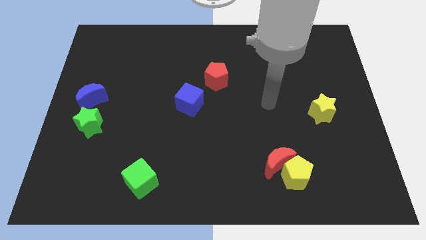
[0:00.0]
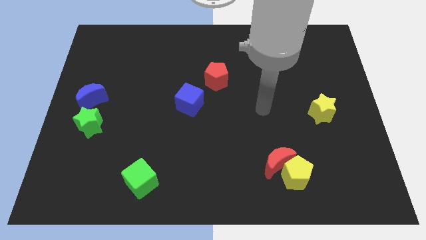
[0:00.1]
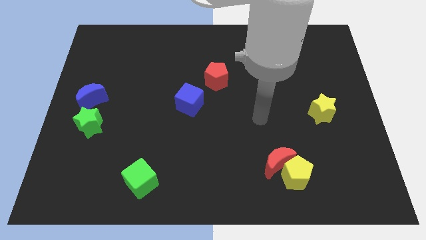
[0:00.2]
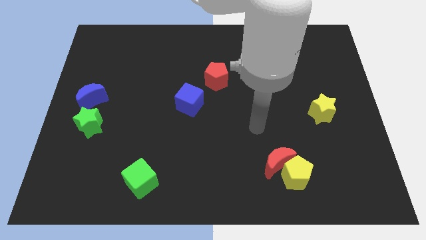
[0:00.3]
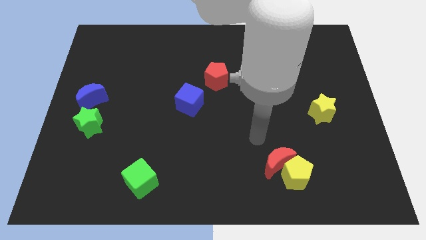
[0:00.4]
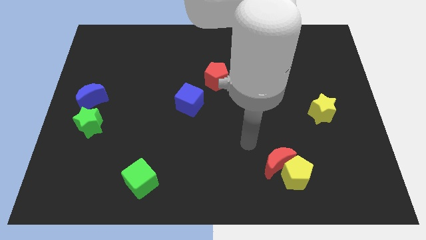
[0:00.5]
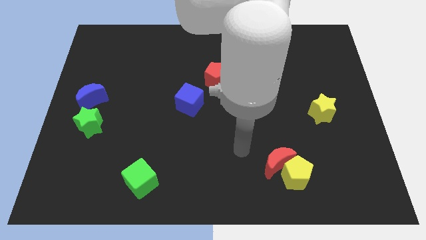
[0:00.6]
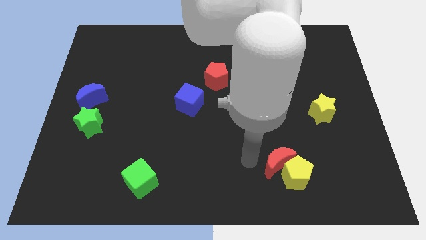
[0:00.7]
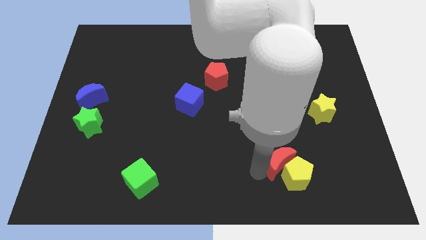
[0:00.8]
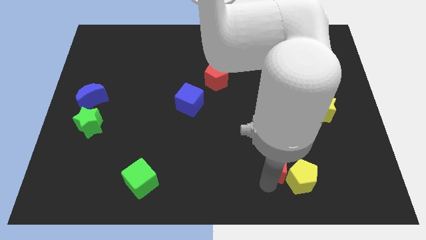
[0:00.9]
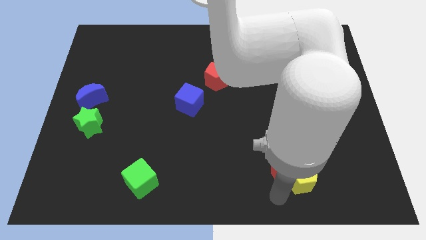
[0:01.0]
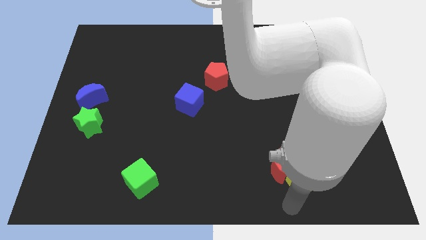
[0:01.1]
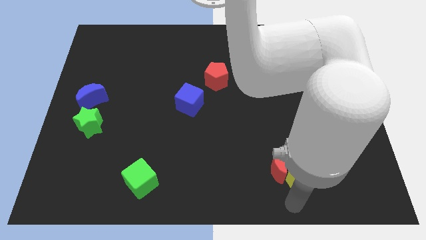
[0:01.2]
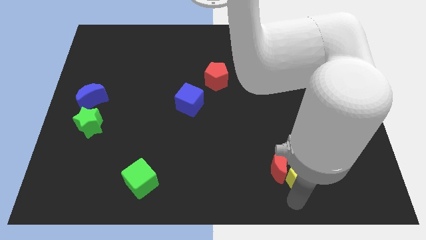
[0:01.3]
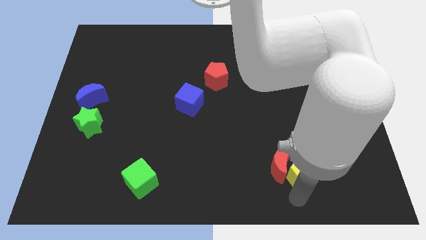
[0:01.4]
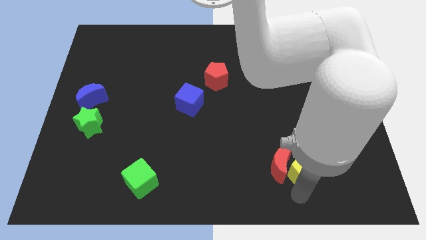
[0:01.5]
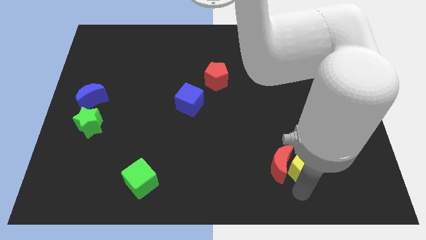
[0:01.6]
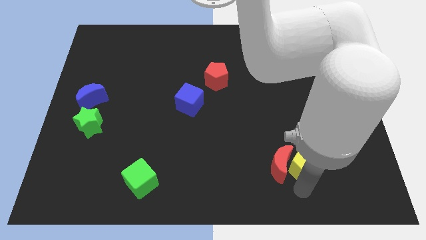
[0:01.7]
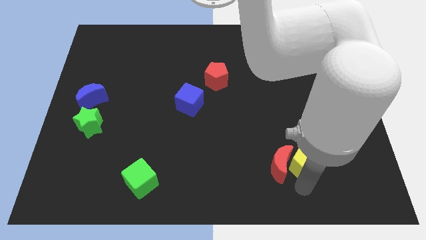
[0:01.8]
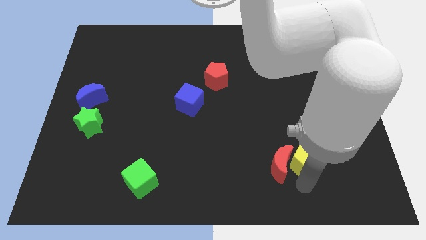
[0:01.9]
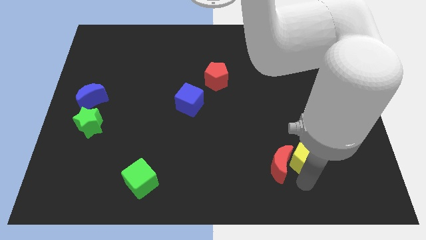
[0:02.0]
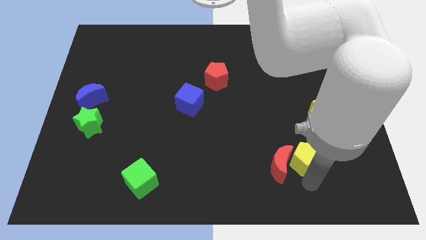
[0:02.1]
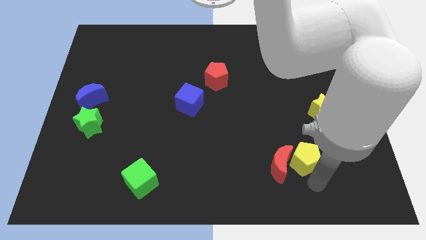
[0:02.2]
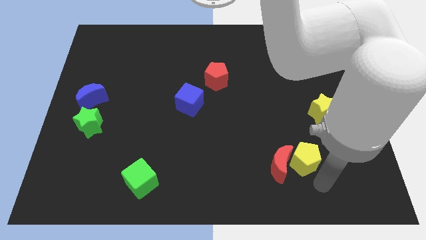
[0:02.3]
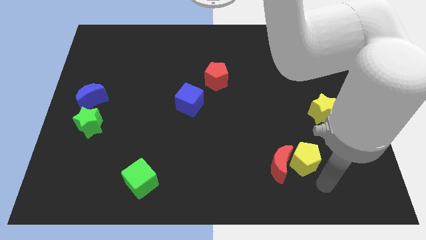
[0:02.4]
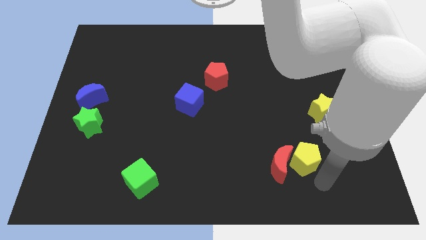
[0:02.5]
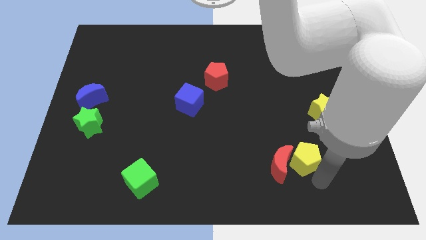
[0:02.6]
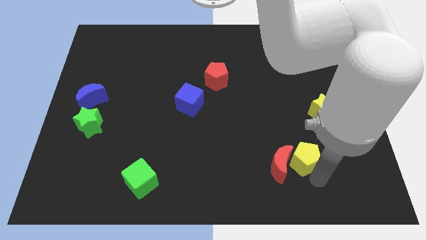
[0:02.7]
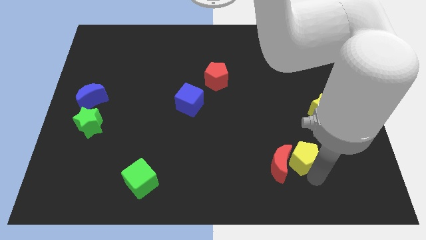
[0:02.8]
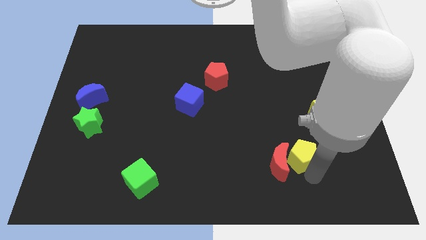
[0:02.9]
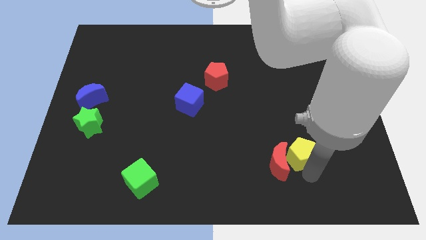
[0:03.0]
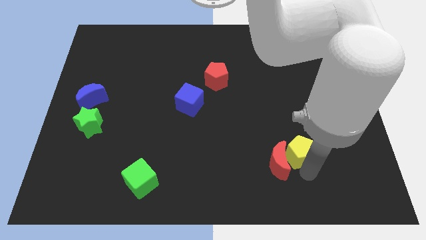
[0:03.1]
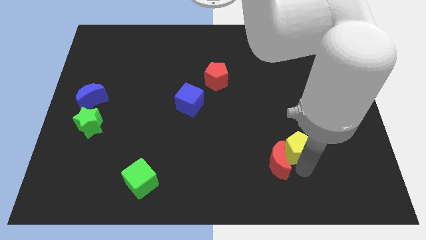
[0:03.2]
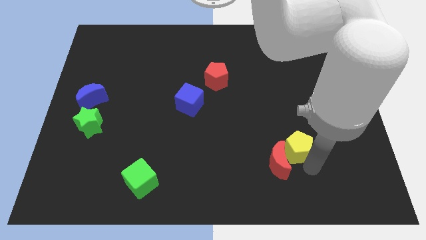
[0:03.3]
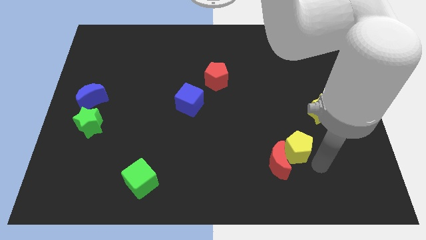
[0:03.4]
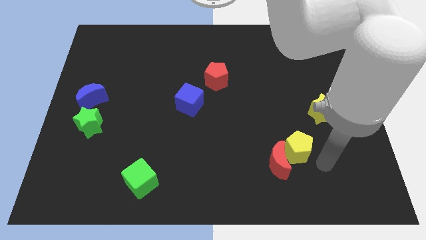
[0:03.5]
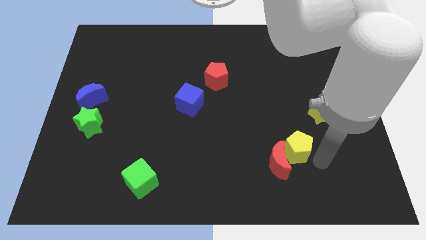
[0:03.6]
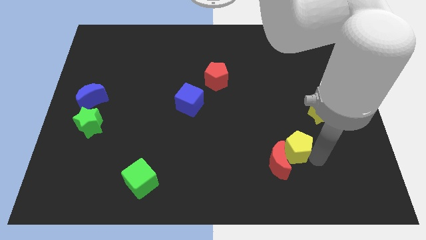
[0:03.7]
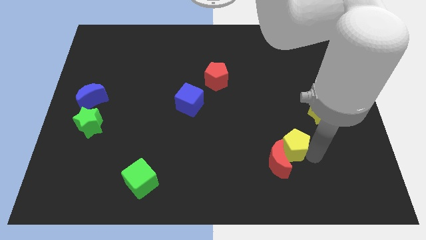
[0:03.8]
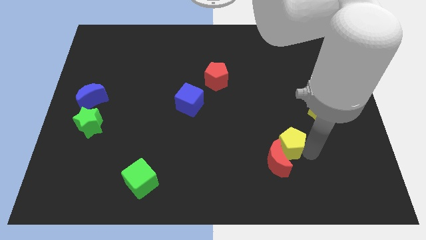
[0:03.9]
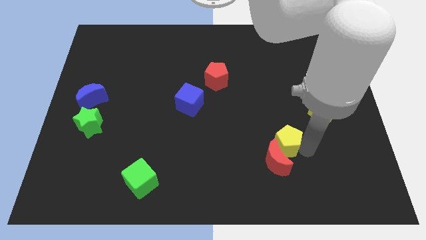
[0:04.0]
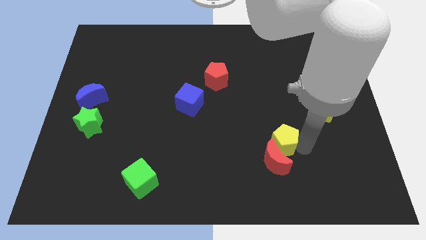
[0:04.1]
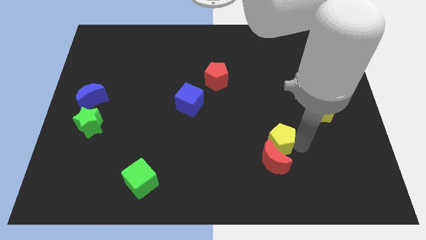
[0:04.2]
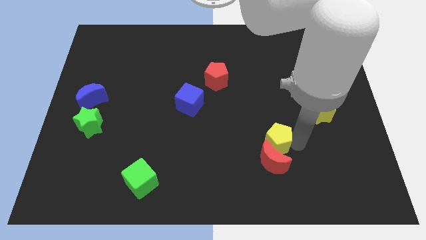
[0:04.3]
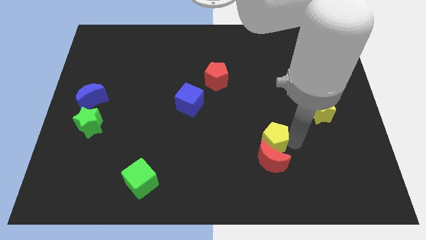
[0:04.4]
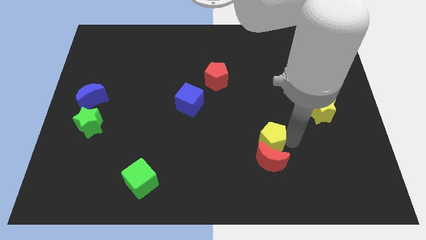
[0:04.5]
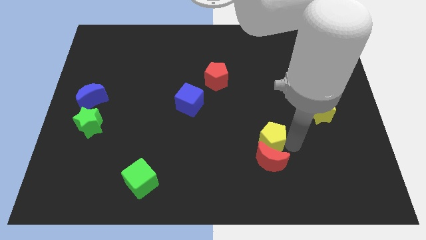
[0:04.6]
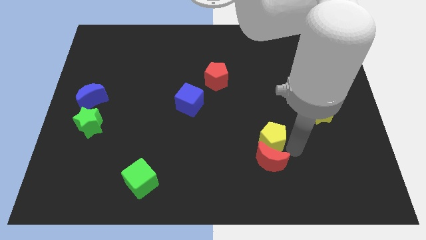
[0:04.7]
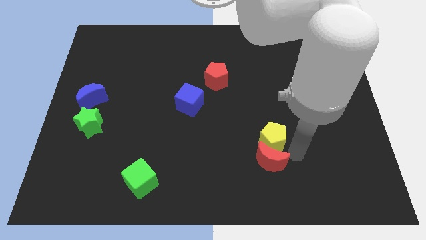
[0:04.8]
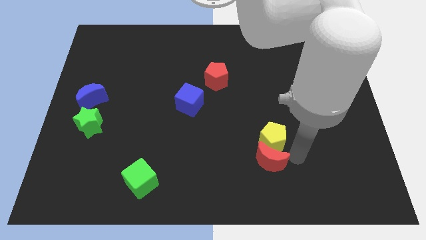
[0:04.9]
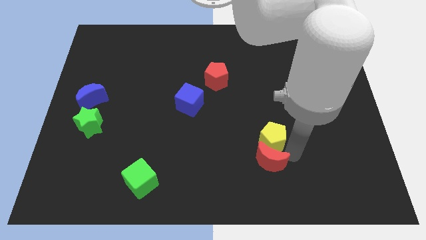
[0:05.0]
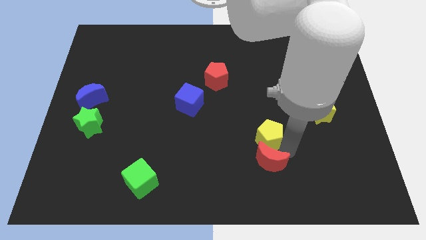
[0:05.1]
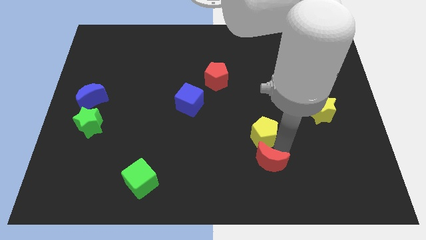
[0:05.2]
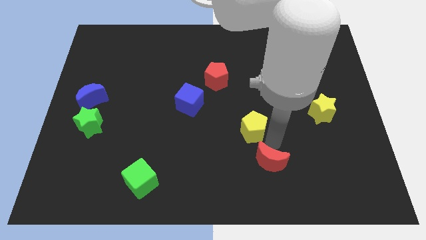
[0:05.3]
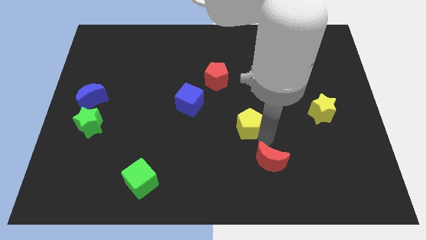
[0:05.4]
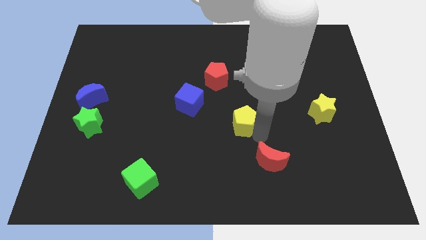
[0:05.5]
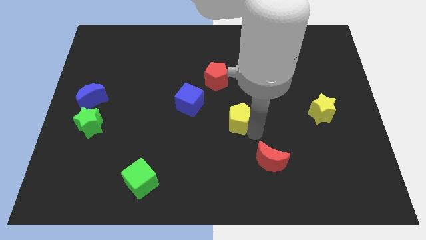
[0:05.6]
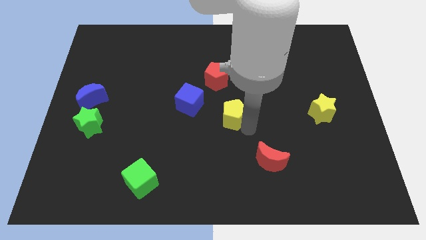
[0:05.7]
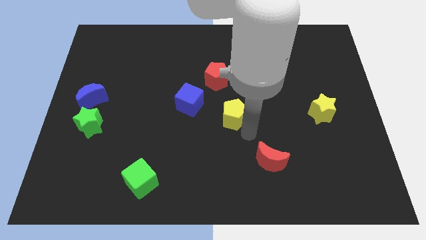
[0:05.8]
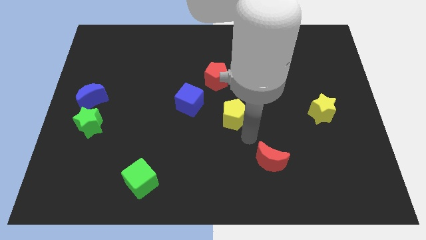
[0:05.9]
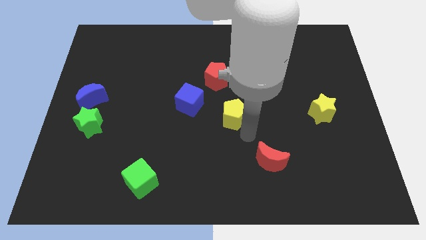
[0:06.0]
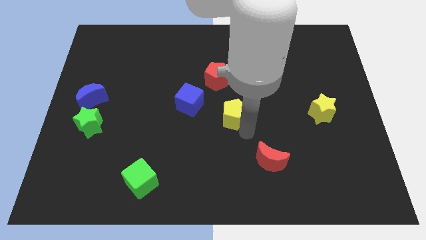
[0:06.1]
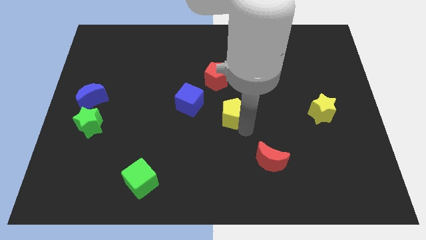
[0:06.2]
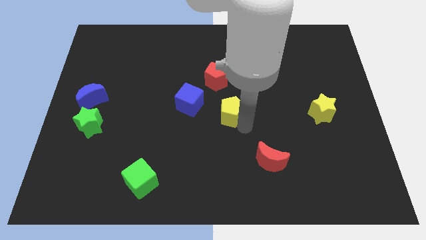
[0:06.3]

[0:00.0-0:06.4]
move the yellow pentagon upwards and left diagonally

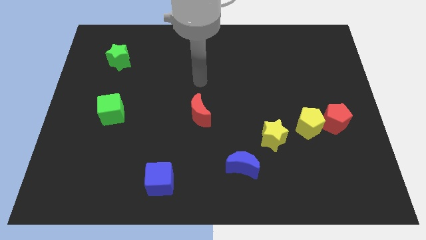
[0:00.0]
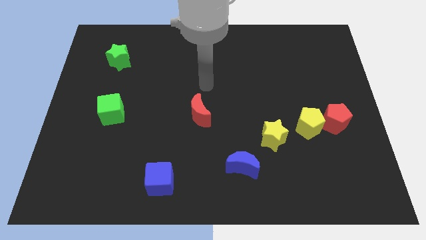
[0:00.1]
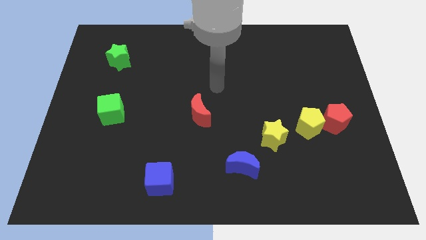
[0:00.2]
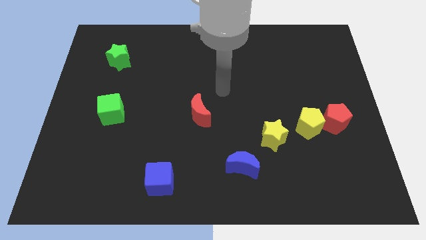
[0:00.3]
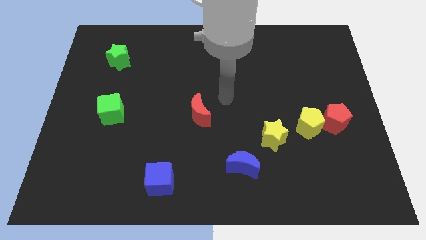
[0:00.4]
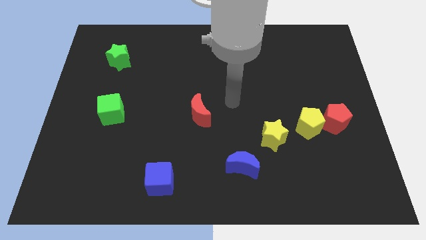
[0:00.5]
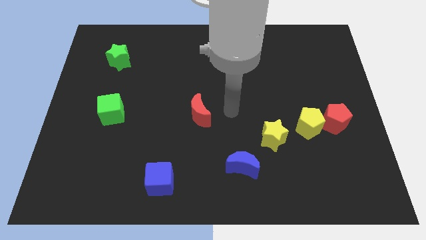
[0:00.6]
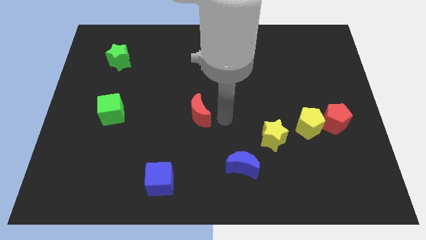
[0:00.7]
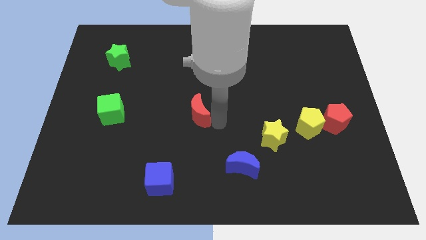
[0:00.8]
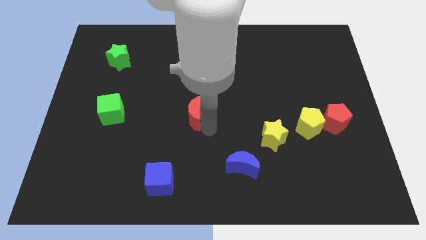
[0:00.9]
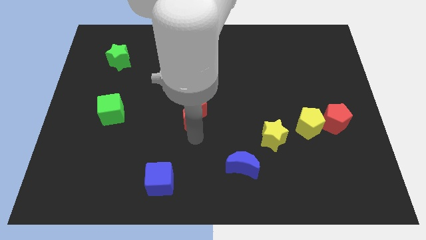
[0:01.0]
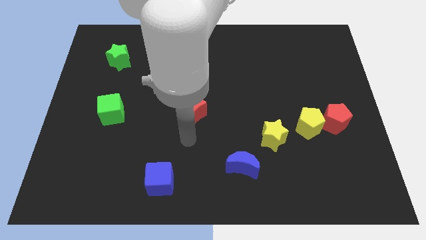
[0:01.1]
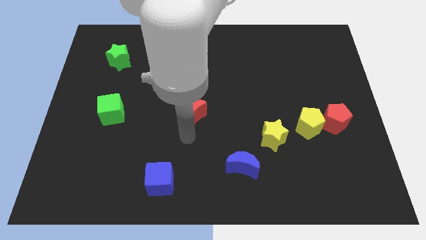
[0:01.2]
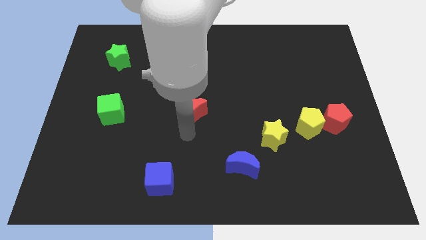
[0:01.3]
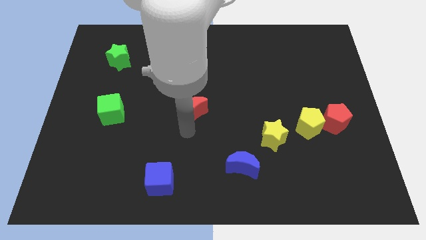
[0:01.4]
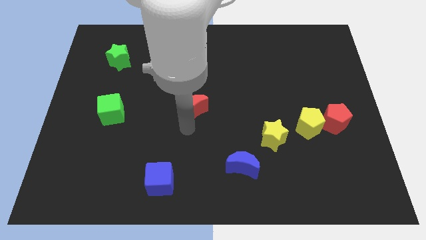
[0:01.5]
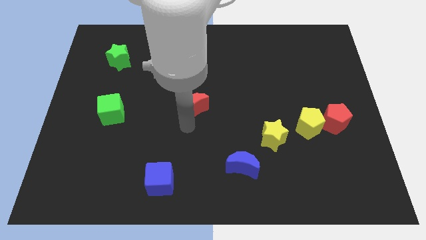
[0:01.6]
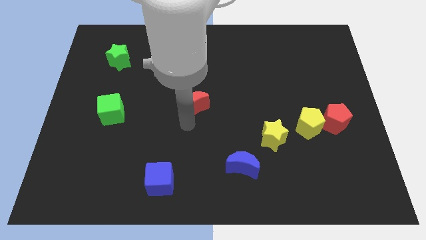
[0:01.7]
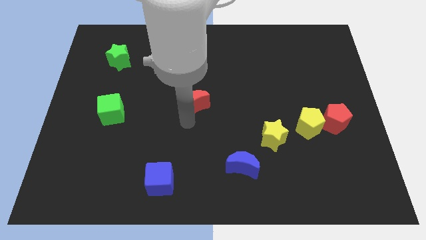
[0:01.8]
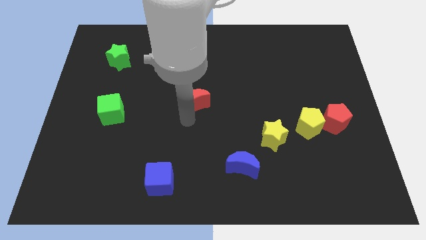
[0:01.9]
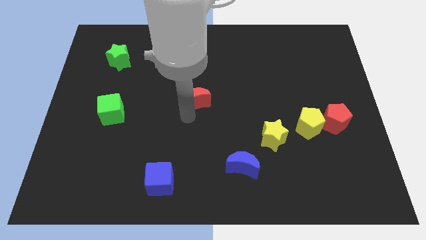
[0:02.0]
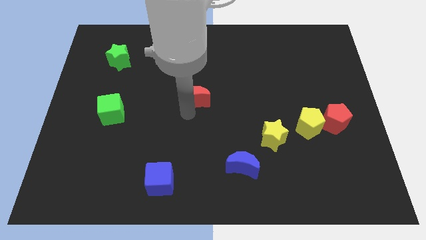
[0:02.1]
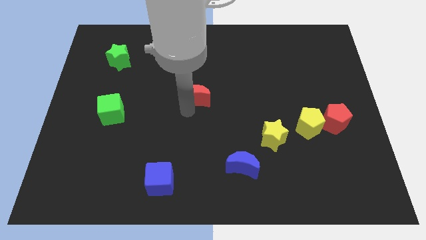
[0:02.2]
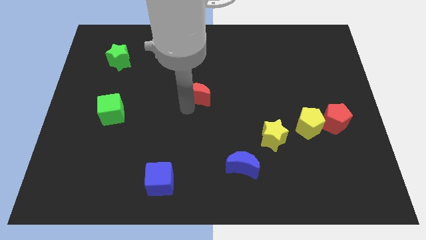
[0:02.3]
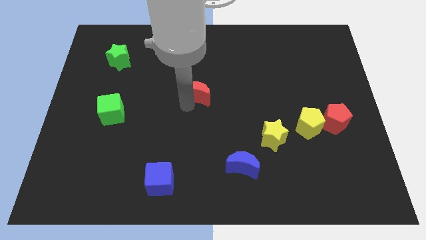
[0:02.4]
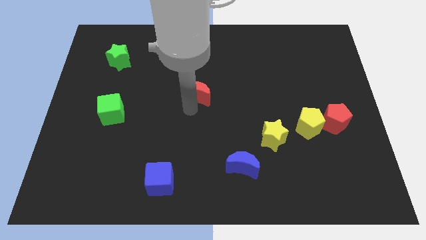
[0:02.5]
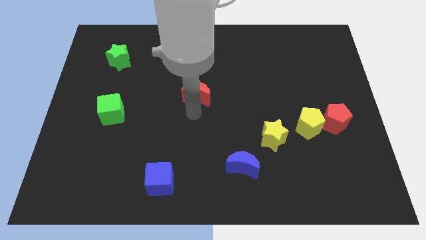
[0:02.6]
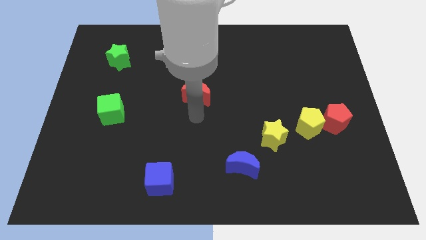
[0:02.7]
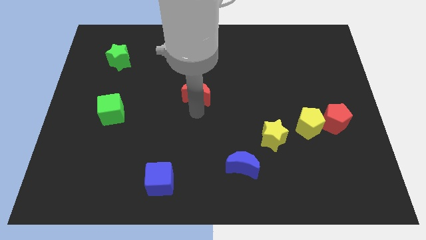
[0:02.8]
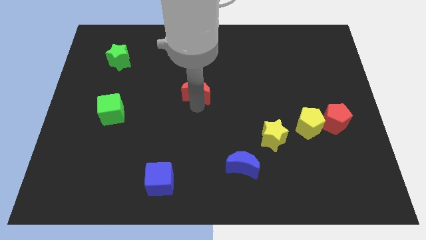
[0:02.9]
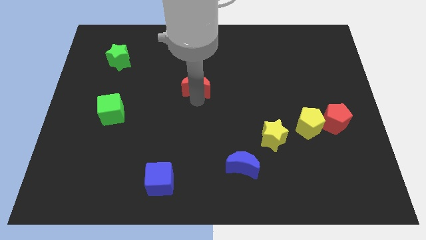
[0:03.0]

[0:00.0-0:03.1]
slide the red moon a little bit up
